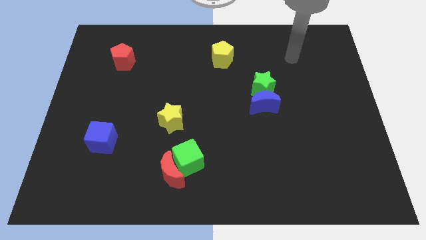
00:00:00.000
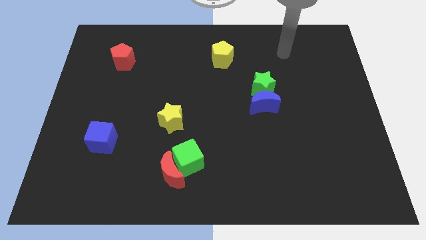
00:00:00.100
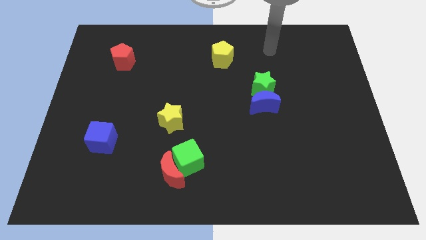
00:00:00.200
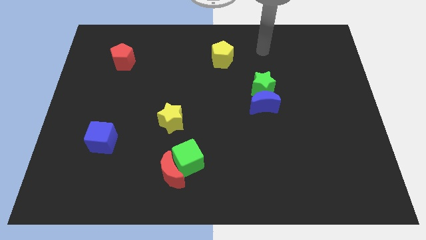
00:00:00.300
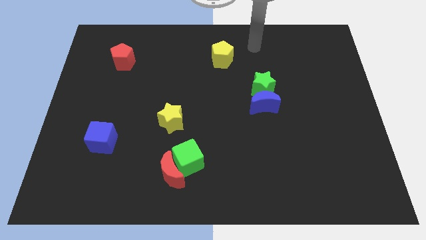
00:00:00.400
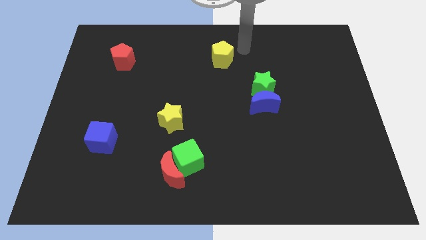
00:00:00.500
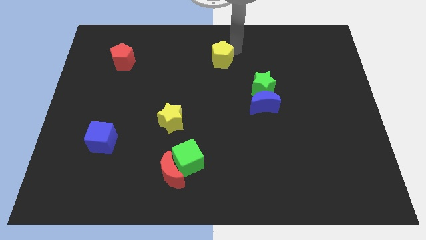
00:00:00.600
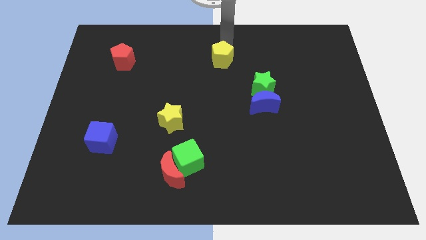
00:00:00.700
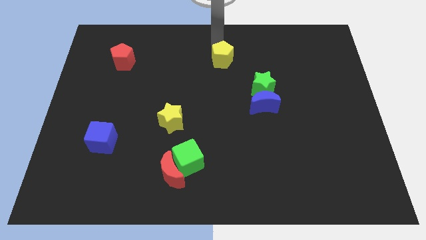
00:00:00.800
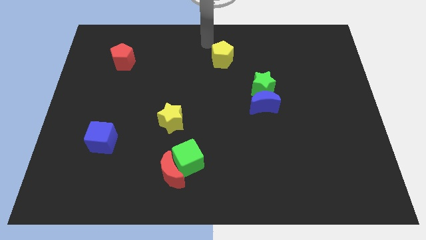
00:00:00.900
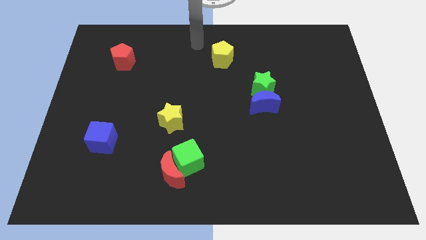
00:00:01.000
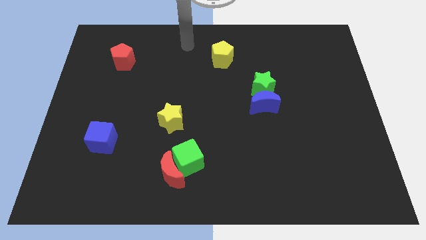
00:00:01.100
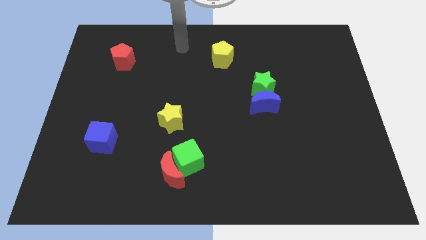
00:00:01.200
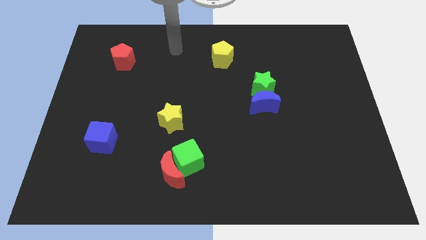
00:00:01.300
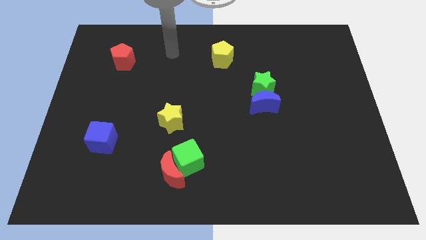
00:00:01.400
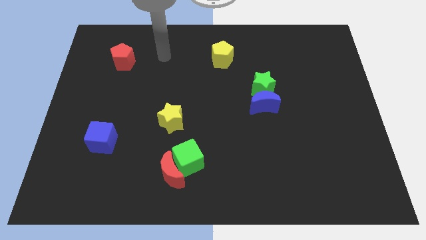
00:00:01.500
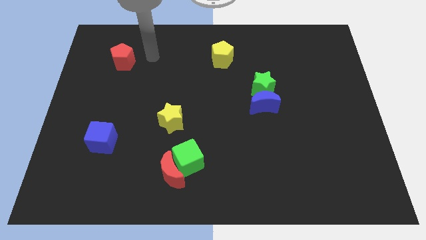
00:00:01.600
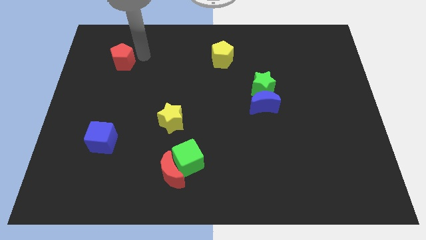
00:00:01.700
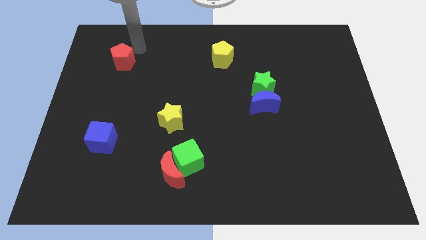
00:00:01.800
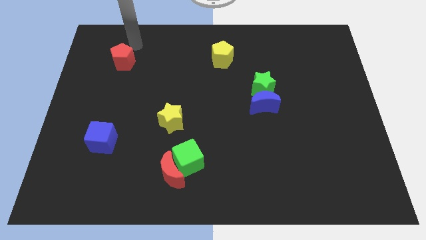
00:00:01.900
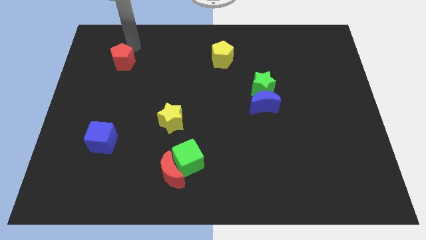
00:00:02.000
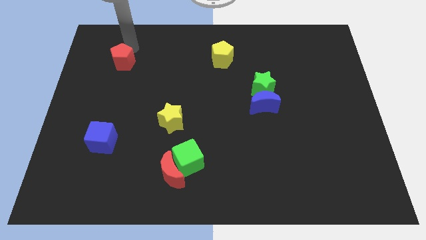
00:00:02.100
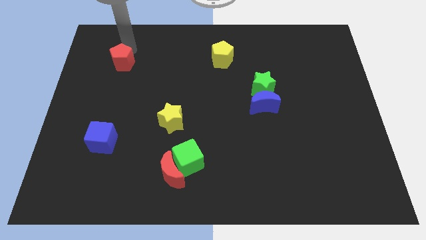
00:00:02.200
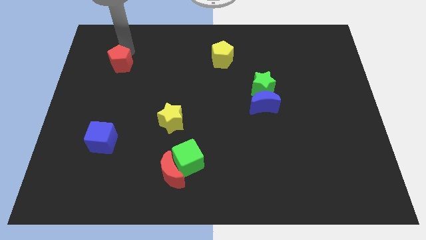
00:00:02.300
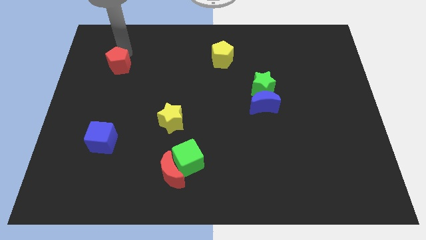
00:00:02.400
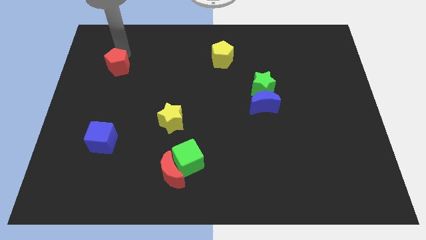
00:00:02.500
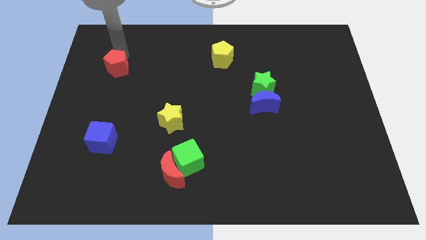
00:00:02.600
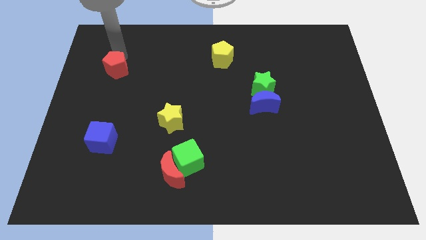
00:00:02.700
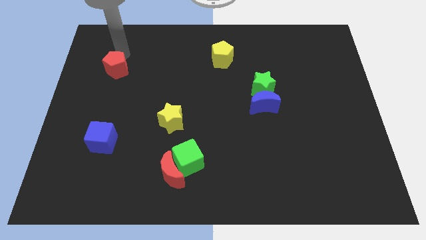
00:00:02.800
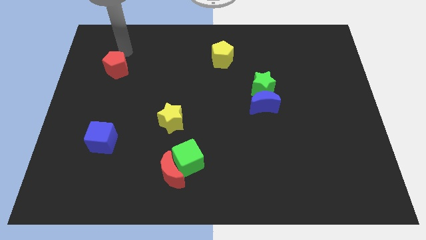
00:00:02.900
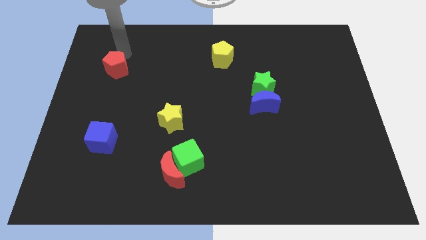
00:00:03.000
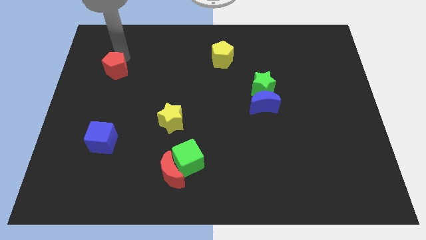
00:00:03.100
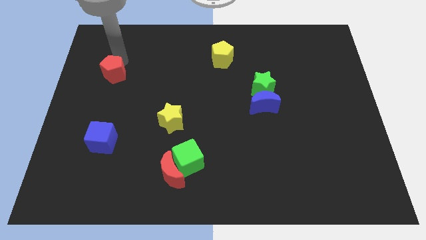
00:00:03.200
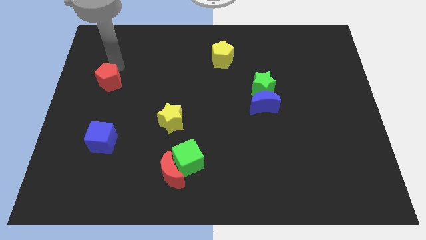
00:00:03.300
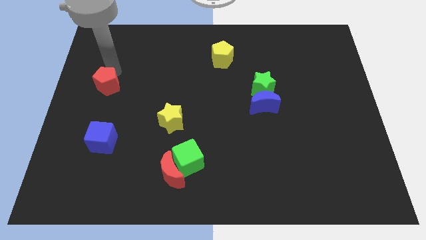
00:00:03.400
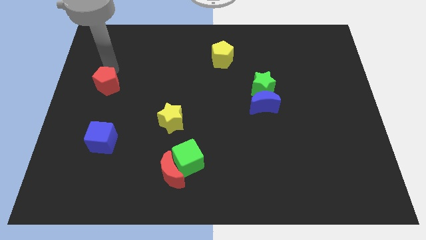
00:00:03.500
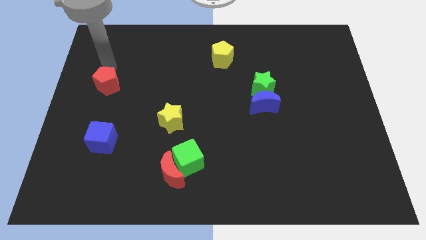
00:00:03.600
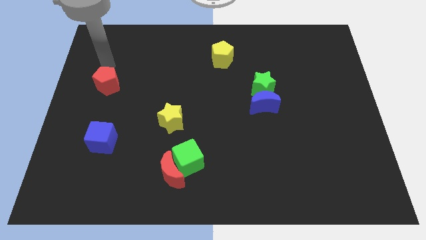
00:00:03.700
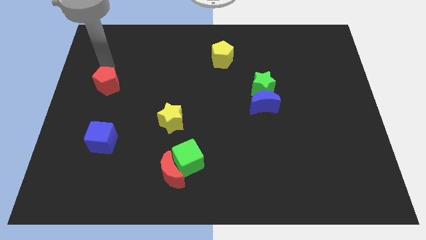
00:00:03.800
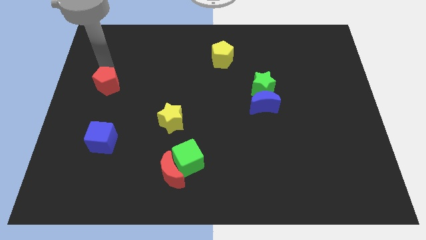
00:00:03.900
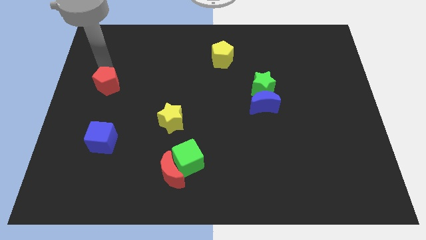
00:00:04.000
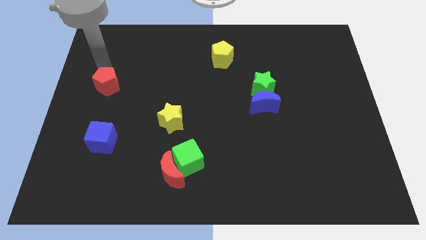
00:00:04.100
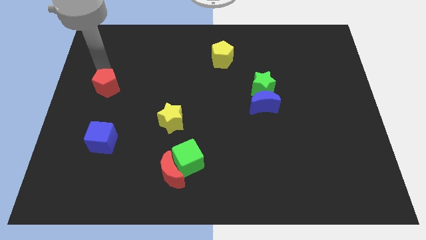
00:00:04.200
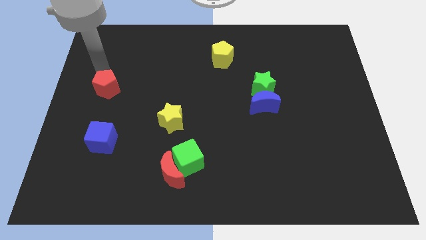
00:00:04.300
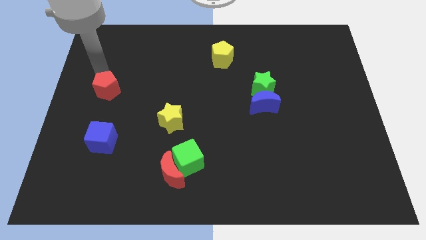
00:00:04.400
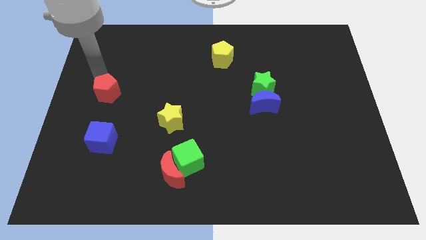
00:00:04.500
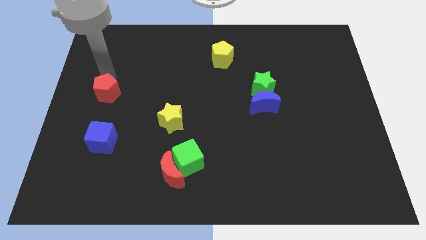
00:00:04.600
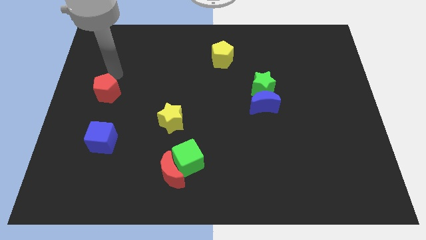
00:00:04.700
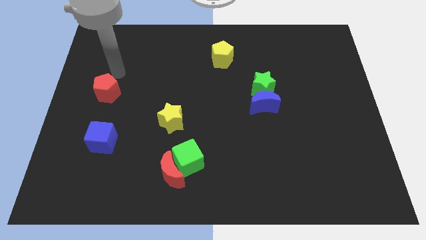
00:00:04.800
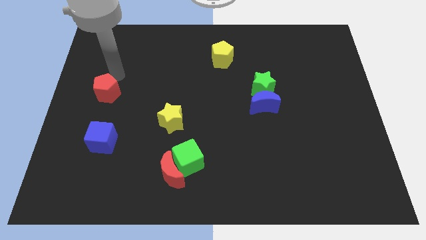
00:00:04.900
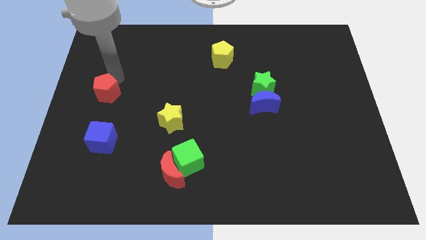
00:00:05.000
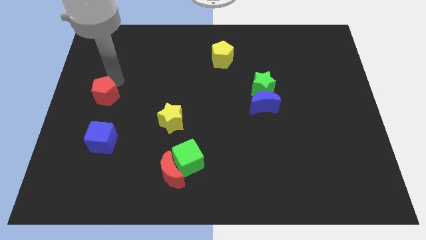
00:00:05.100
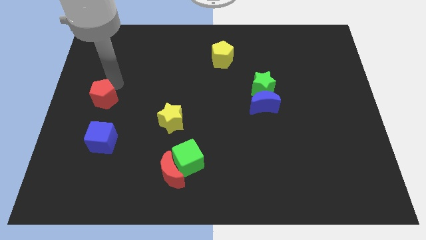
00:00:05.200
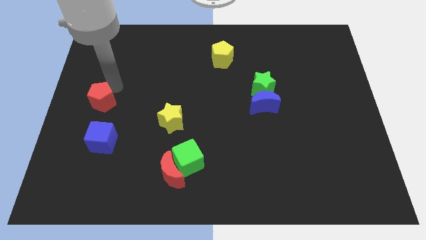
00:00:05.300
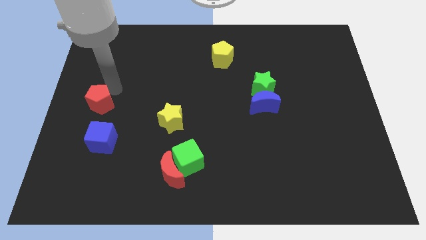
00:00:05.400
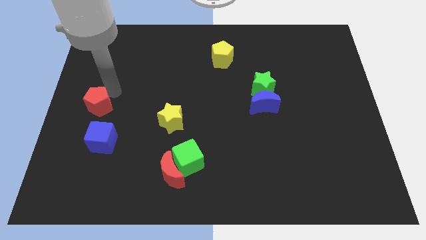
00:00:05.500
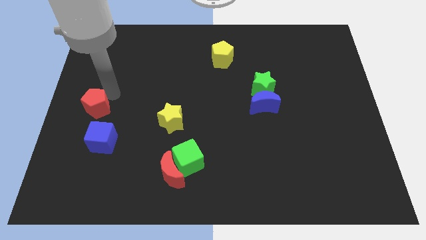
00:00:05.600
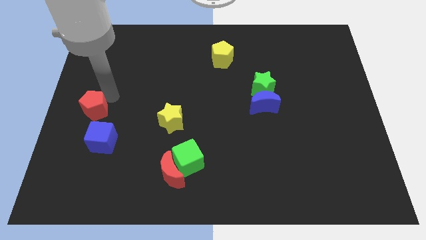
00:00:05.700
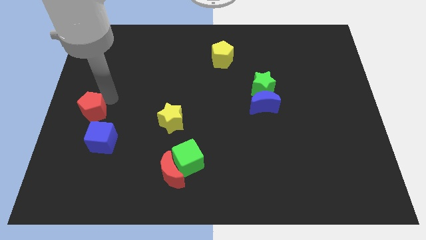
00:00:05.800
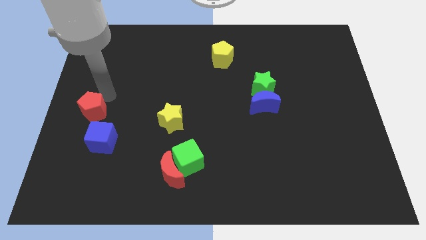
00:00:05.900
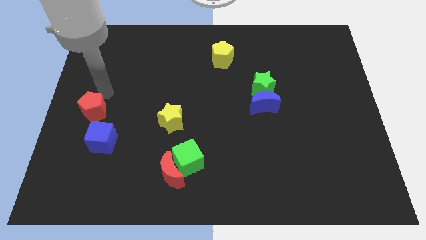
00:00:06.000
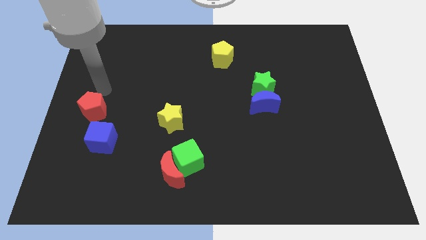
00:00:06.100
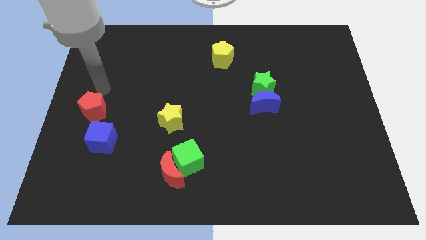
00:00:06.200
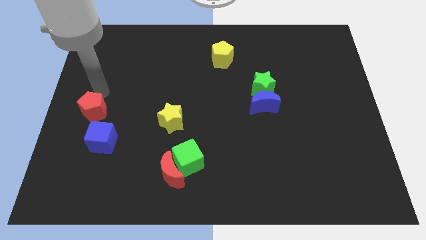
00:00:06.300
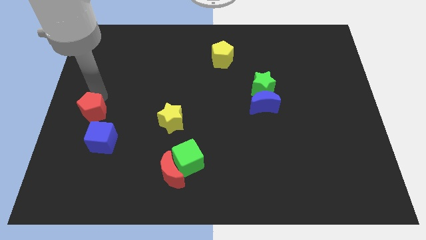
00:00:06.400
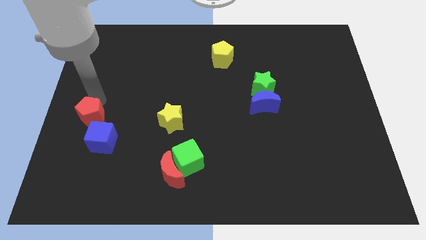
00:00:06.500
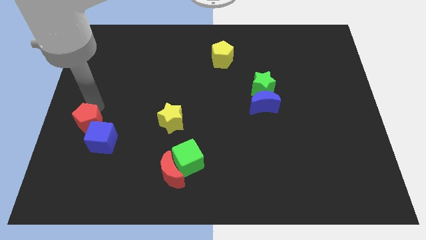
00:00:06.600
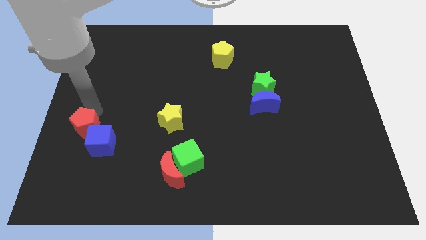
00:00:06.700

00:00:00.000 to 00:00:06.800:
push the red pentagon down

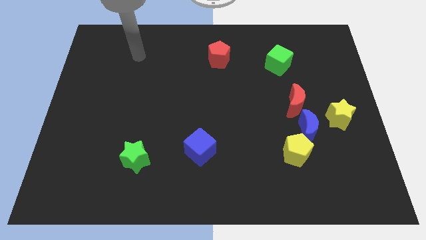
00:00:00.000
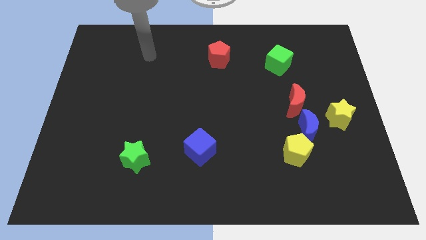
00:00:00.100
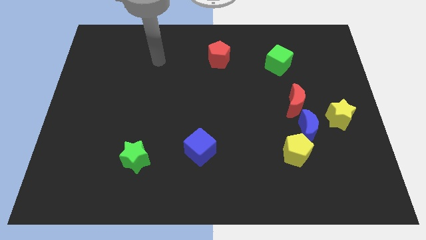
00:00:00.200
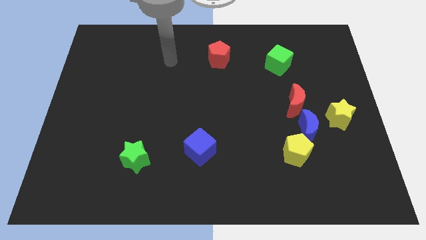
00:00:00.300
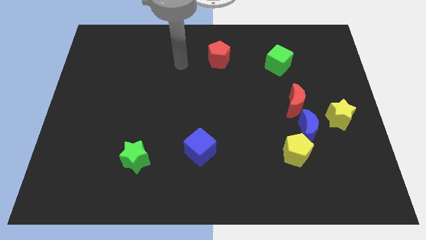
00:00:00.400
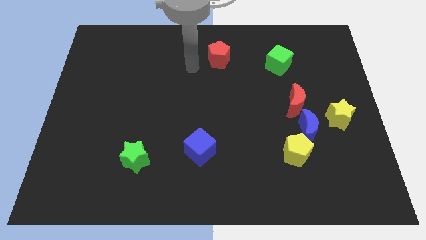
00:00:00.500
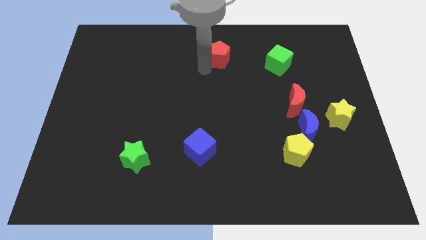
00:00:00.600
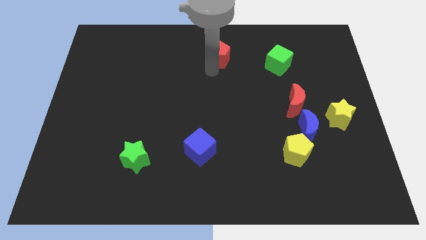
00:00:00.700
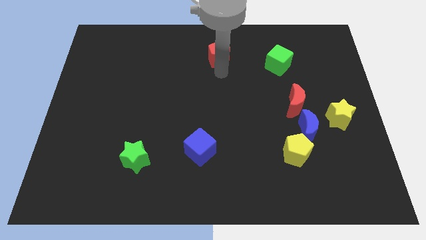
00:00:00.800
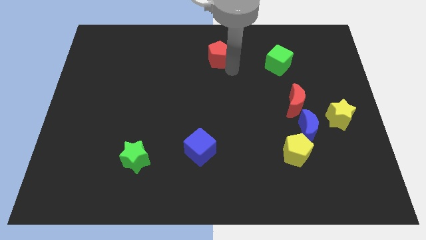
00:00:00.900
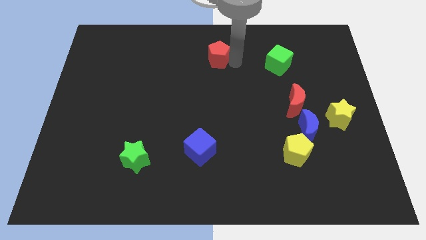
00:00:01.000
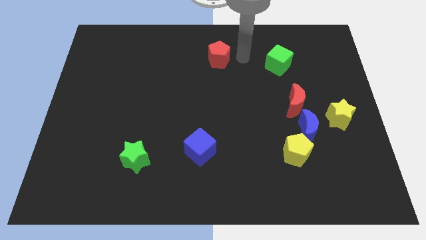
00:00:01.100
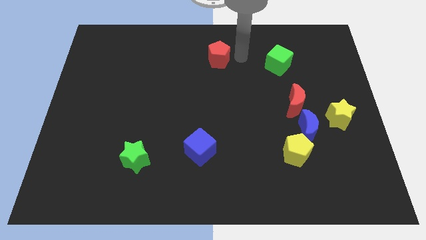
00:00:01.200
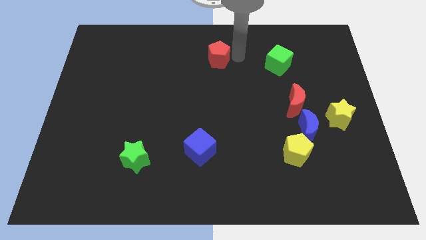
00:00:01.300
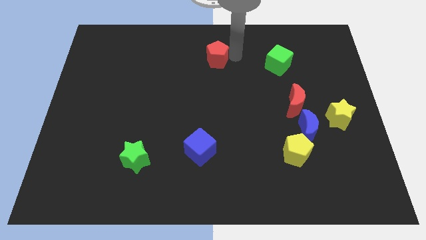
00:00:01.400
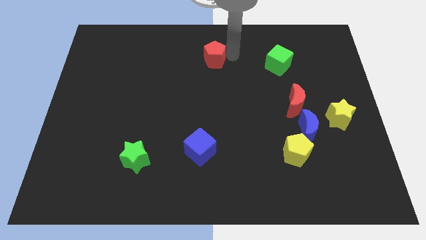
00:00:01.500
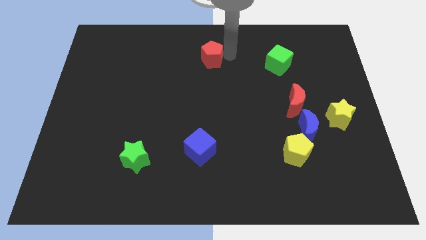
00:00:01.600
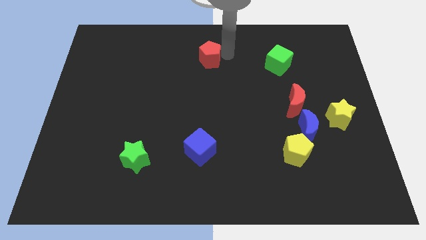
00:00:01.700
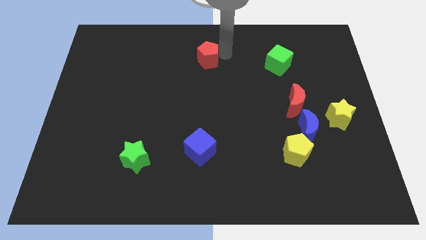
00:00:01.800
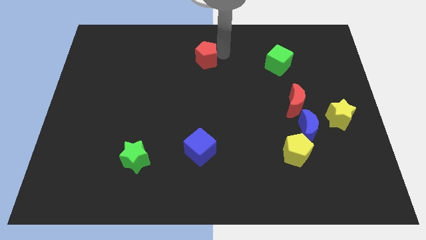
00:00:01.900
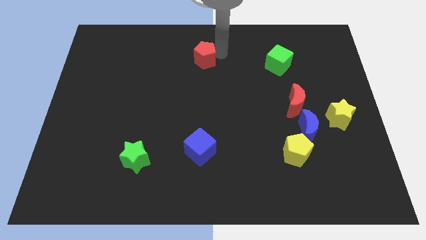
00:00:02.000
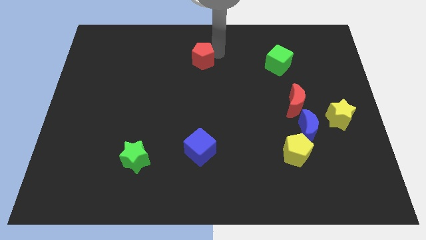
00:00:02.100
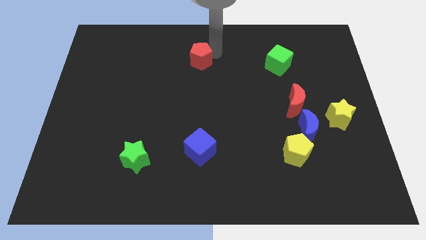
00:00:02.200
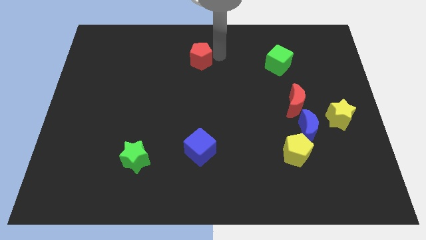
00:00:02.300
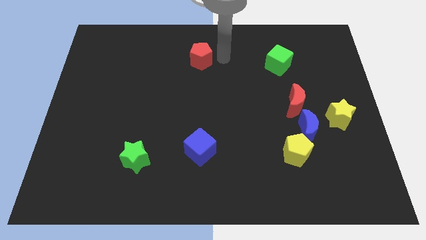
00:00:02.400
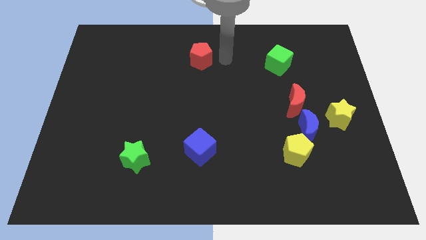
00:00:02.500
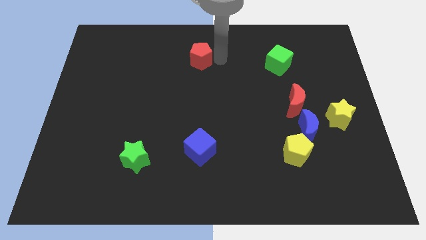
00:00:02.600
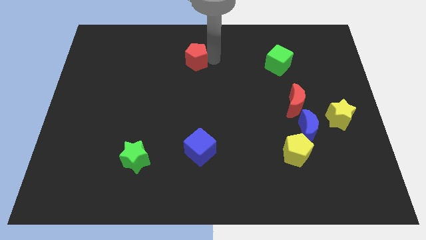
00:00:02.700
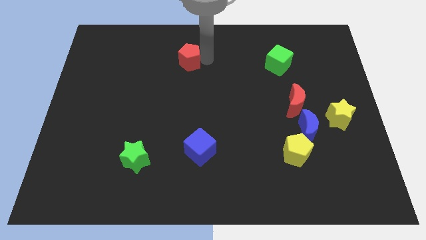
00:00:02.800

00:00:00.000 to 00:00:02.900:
slide the red pentagon left a little bit
